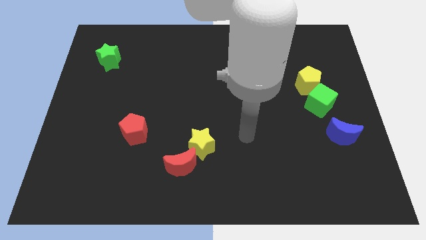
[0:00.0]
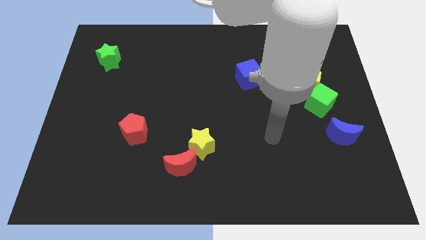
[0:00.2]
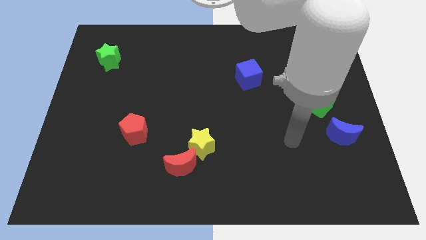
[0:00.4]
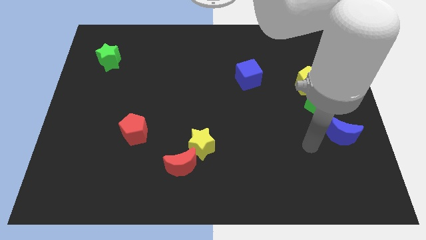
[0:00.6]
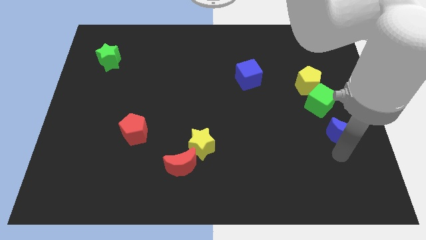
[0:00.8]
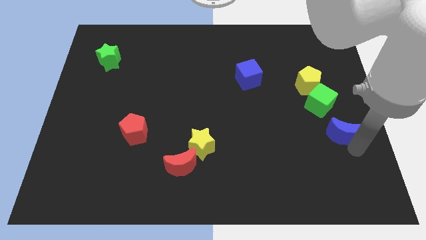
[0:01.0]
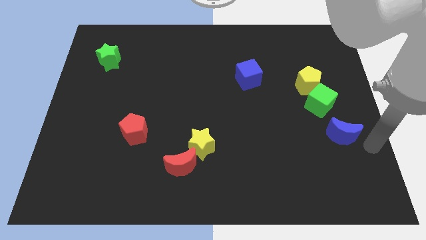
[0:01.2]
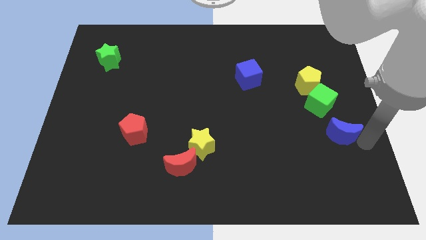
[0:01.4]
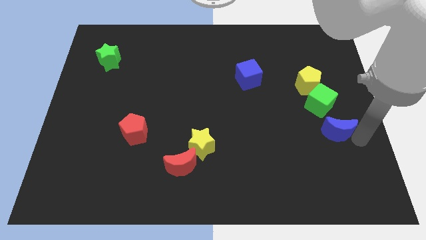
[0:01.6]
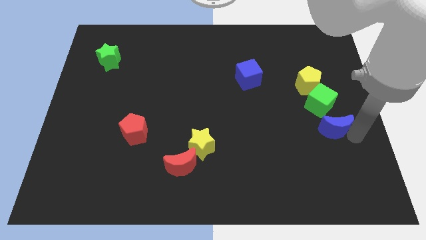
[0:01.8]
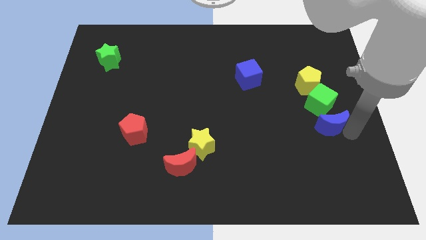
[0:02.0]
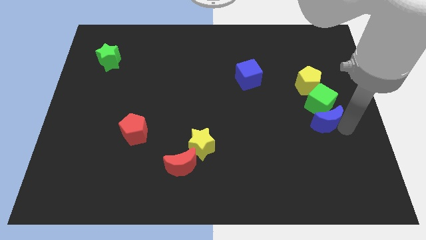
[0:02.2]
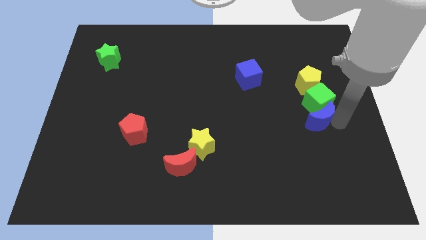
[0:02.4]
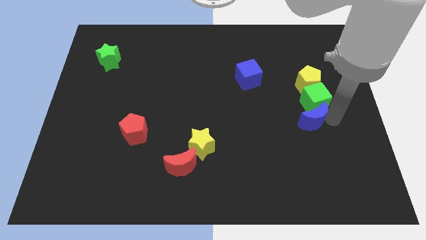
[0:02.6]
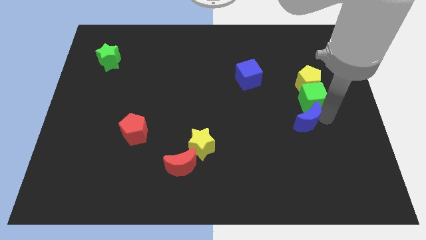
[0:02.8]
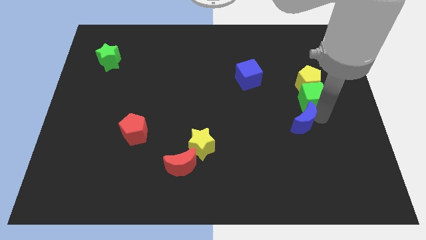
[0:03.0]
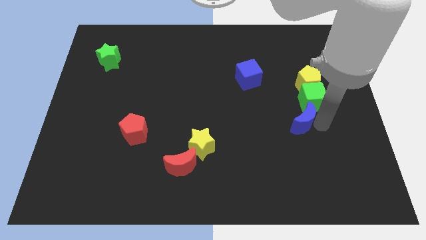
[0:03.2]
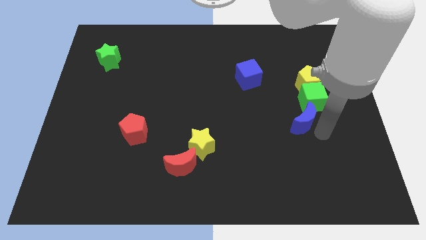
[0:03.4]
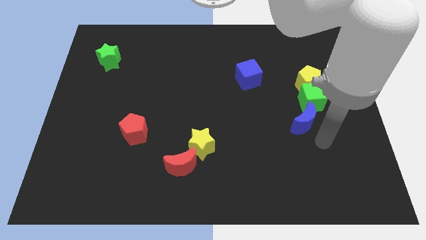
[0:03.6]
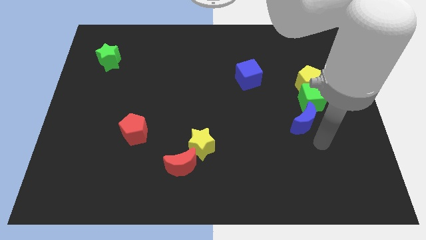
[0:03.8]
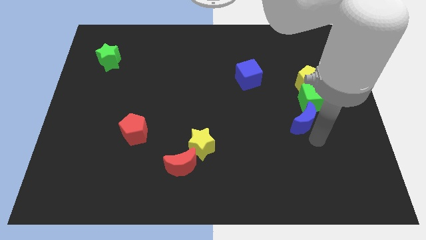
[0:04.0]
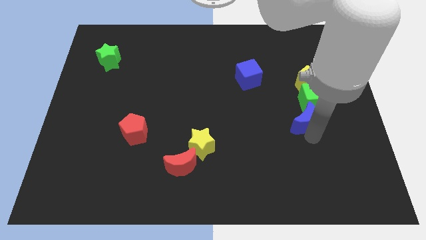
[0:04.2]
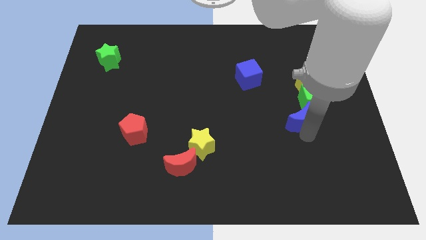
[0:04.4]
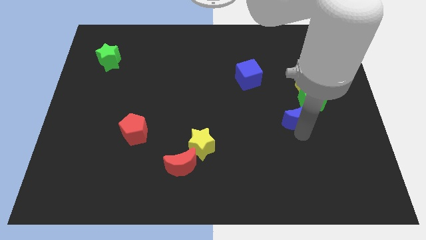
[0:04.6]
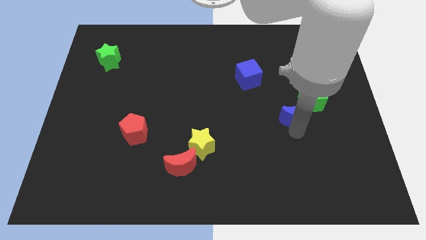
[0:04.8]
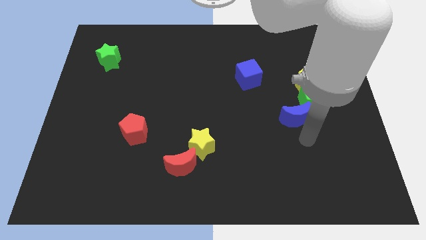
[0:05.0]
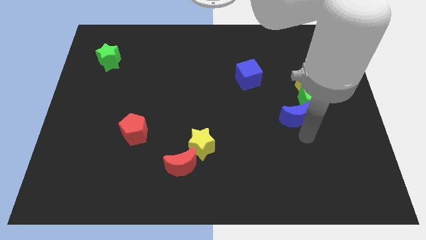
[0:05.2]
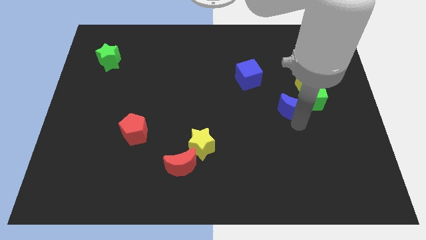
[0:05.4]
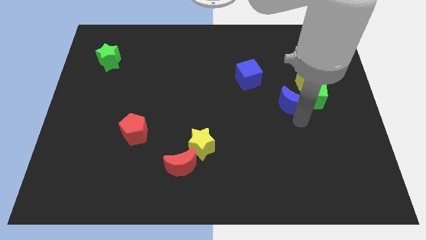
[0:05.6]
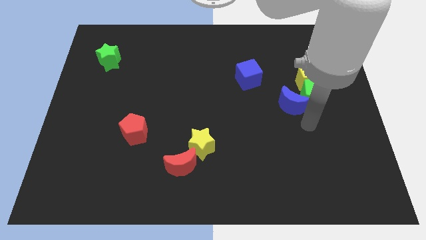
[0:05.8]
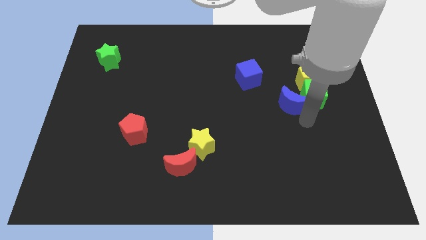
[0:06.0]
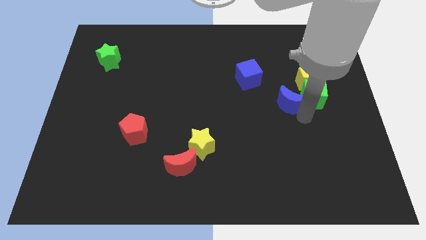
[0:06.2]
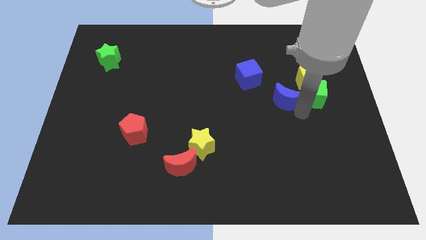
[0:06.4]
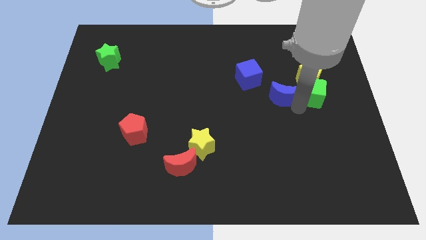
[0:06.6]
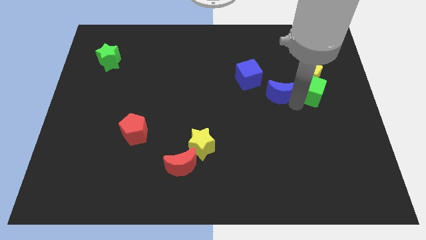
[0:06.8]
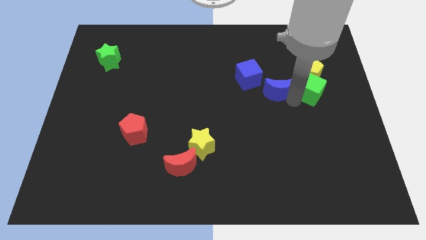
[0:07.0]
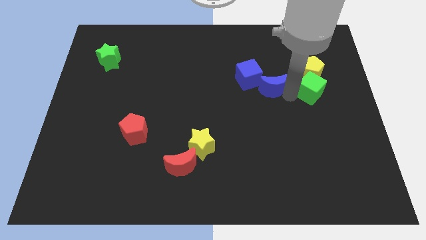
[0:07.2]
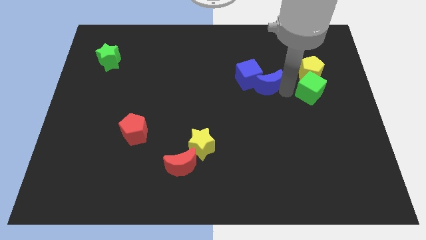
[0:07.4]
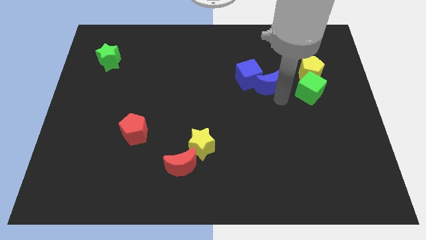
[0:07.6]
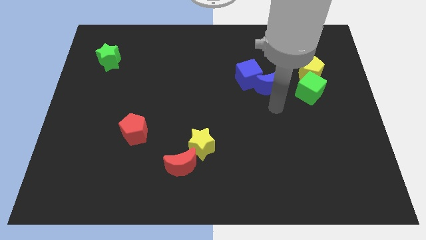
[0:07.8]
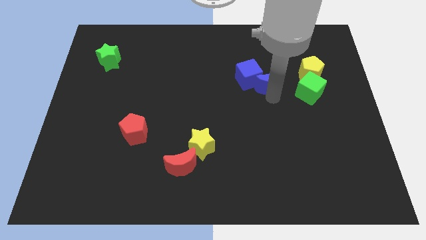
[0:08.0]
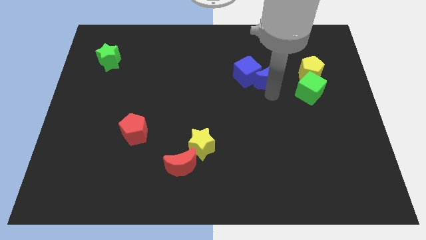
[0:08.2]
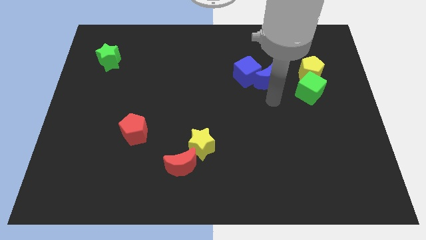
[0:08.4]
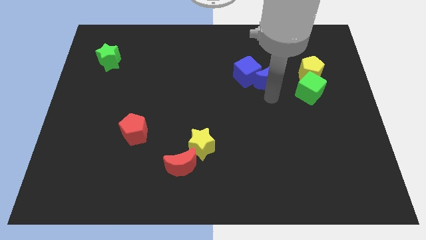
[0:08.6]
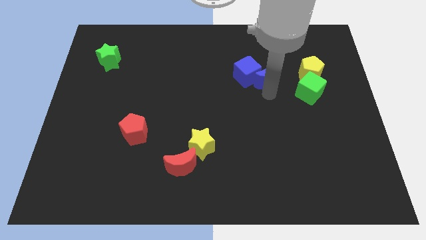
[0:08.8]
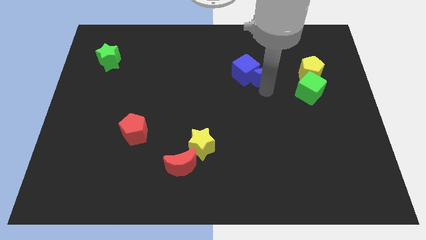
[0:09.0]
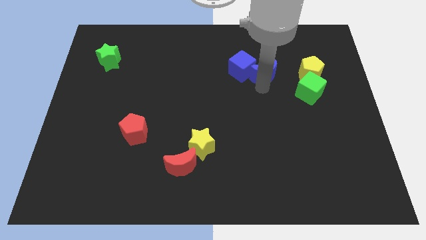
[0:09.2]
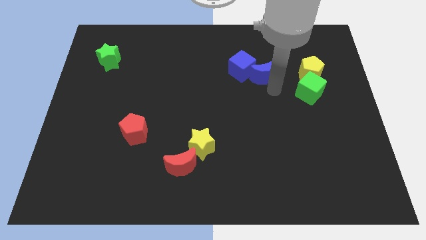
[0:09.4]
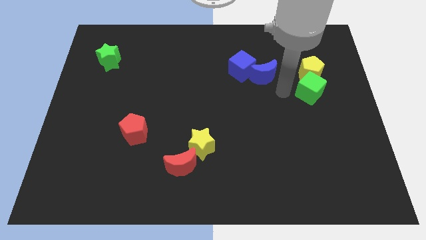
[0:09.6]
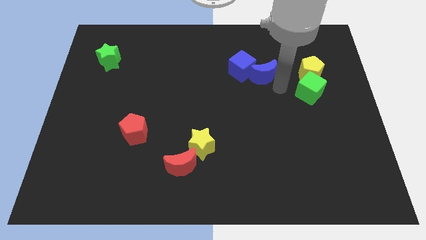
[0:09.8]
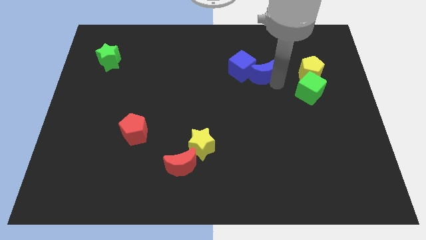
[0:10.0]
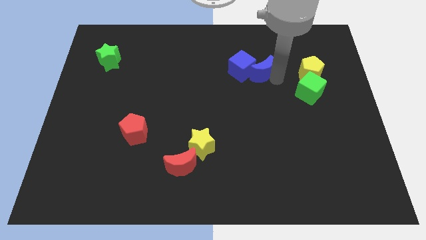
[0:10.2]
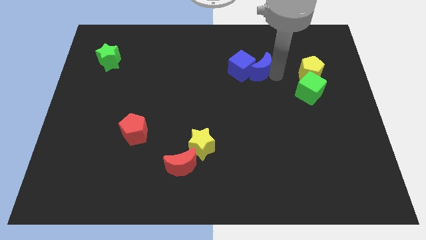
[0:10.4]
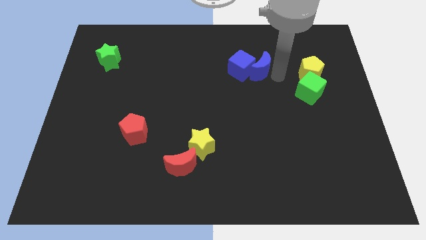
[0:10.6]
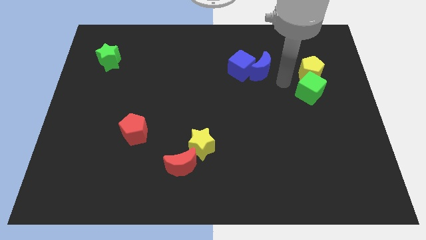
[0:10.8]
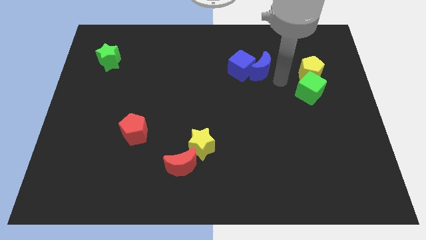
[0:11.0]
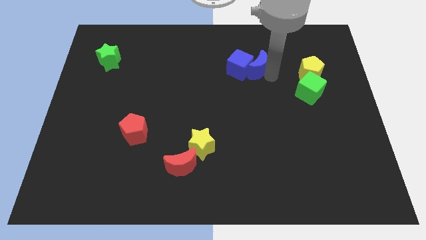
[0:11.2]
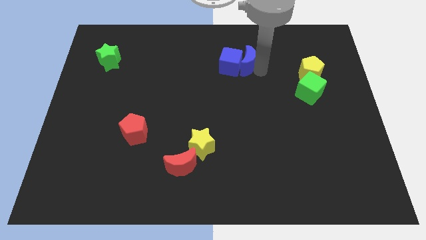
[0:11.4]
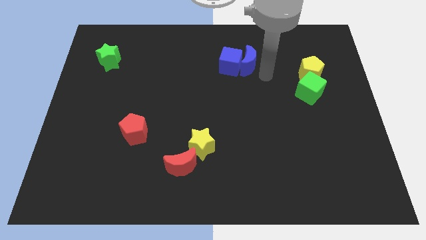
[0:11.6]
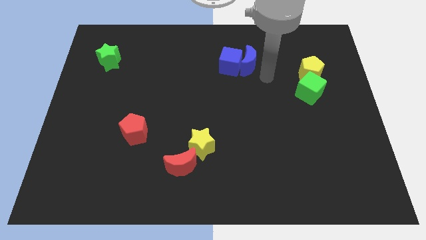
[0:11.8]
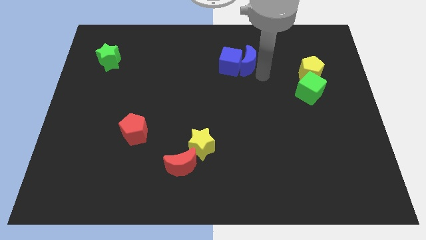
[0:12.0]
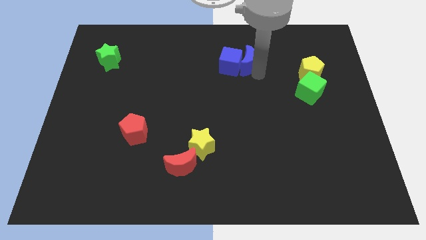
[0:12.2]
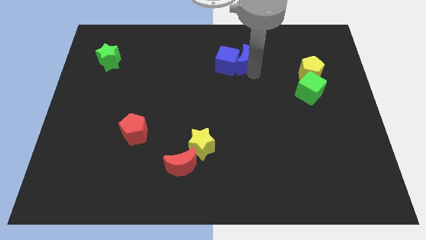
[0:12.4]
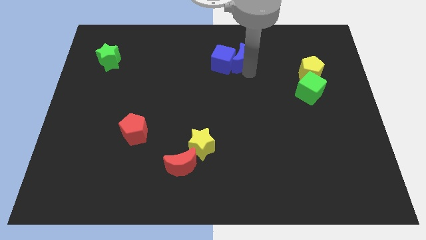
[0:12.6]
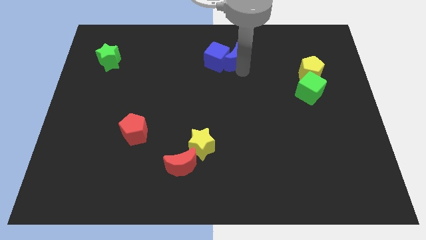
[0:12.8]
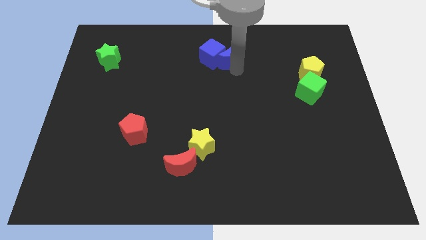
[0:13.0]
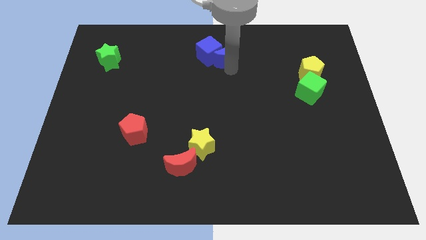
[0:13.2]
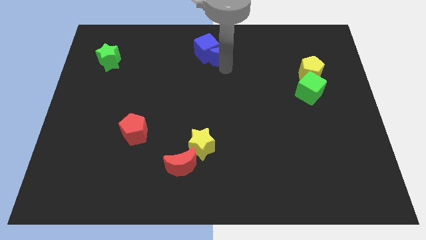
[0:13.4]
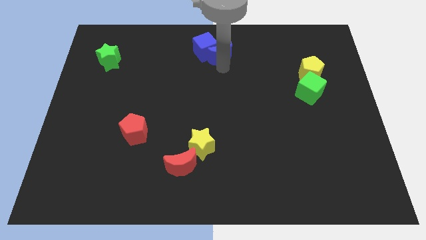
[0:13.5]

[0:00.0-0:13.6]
slide the blue moon to the towards your base
